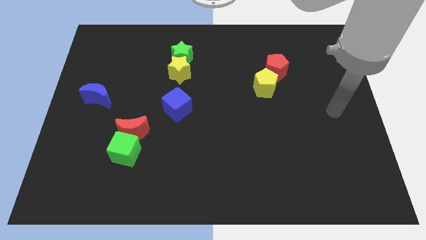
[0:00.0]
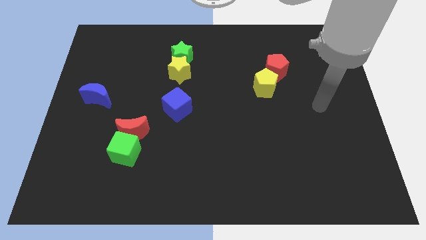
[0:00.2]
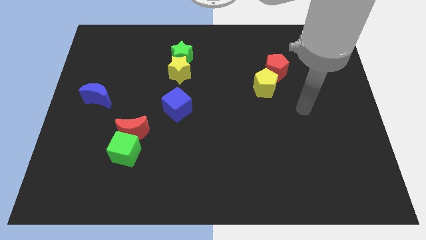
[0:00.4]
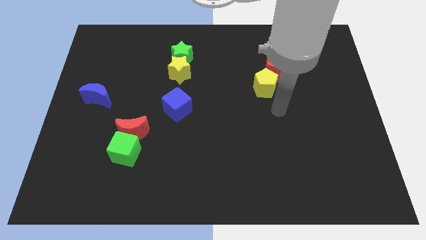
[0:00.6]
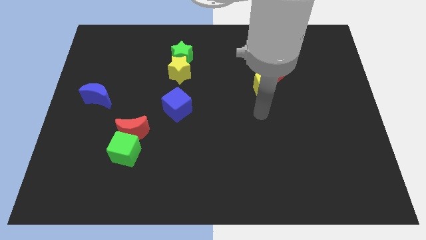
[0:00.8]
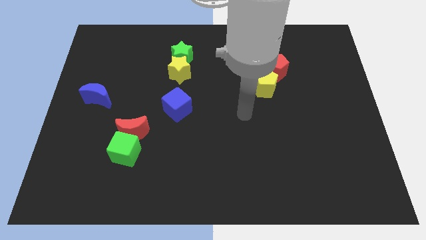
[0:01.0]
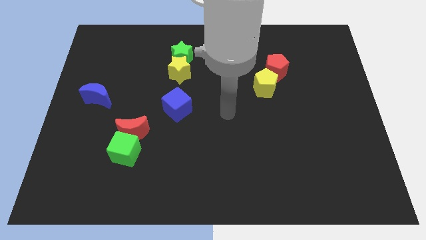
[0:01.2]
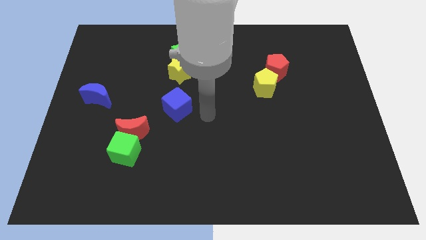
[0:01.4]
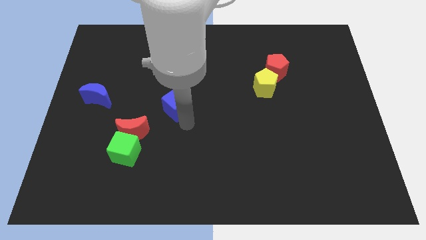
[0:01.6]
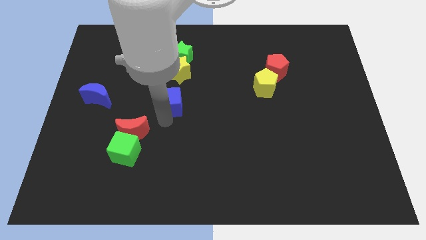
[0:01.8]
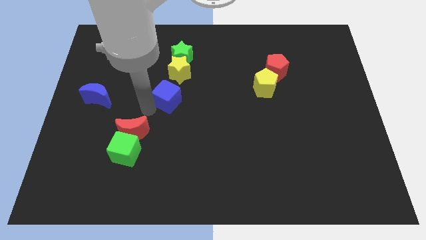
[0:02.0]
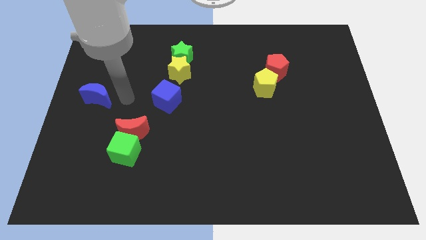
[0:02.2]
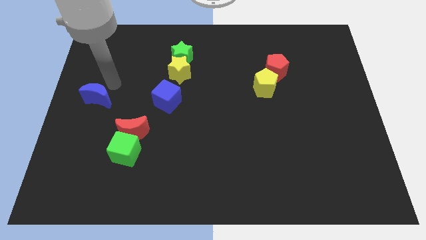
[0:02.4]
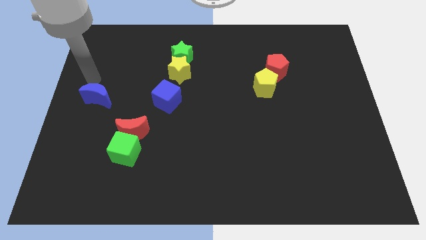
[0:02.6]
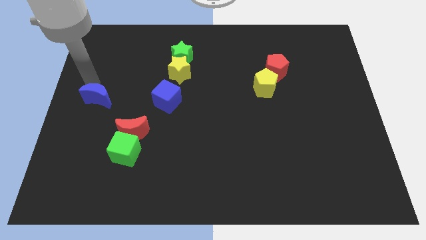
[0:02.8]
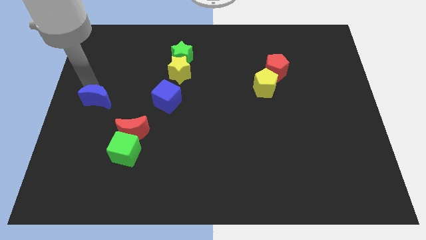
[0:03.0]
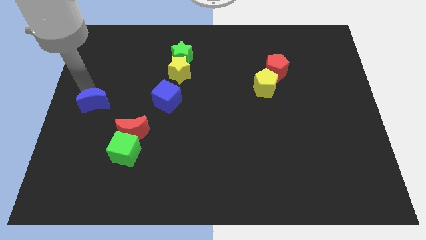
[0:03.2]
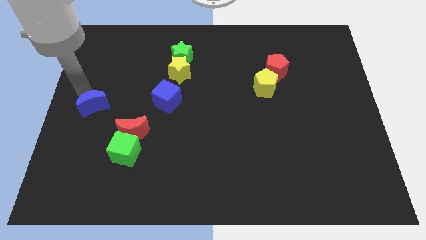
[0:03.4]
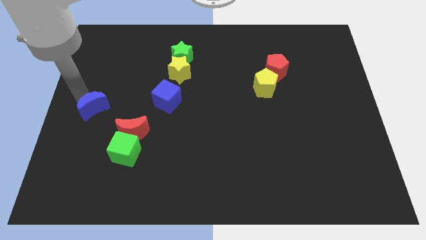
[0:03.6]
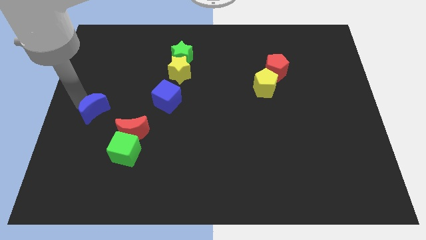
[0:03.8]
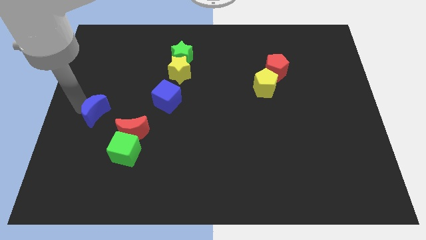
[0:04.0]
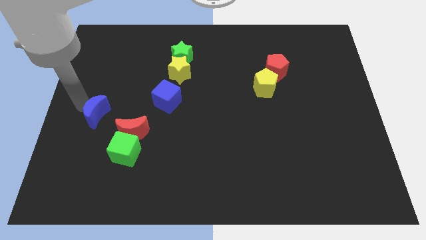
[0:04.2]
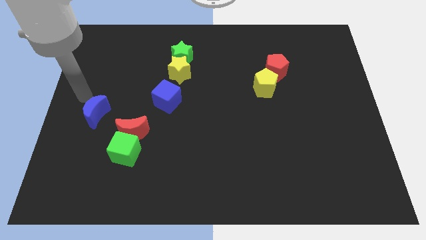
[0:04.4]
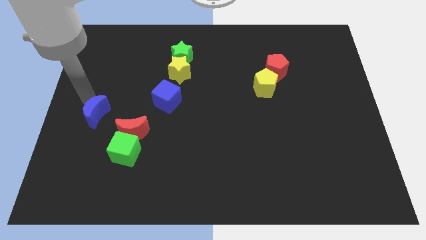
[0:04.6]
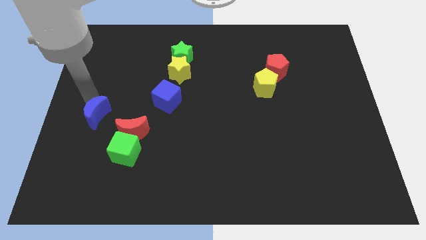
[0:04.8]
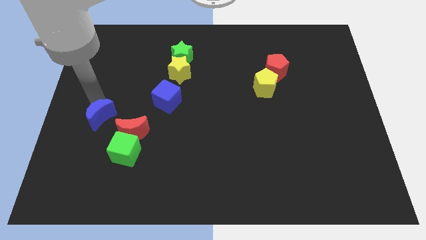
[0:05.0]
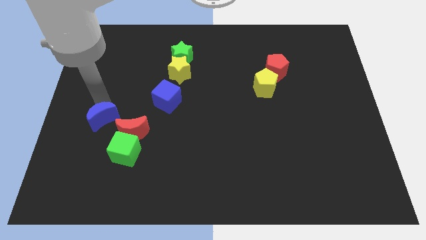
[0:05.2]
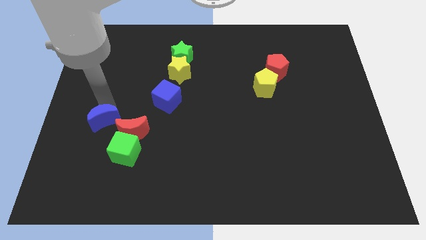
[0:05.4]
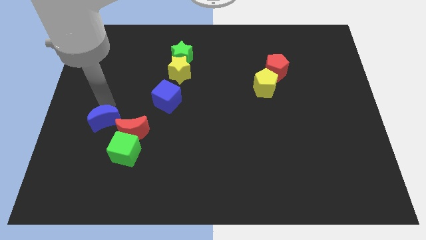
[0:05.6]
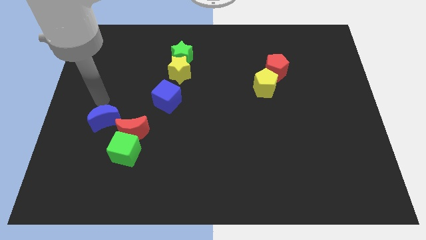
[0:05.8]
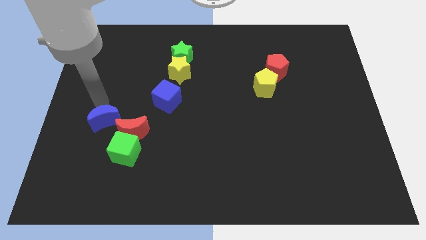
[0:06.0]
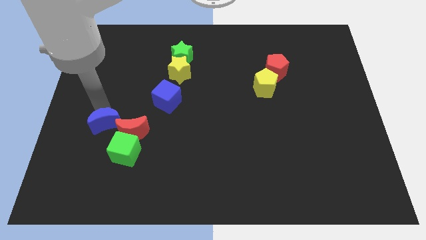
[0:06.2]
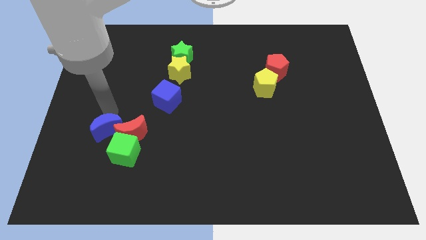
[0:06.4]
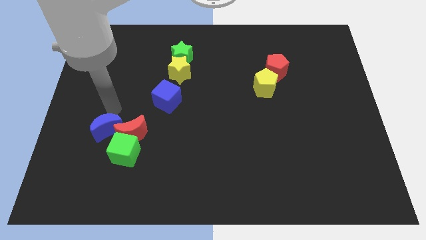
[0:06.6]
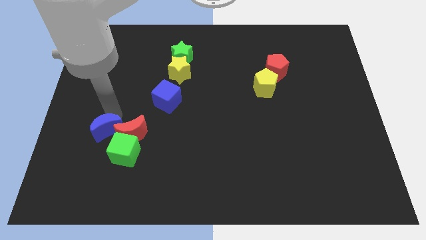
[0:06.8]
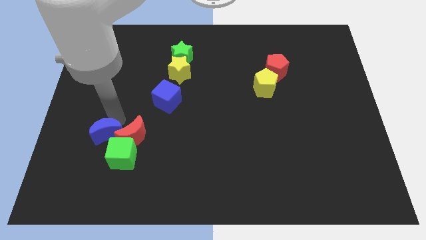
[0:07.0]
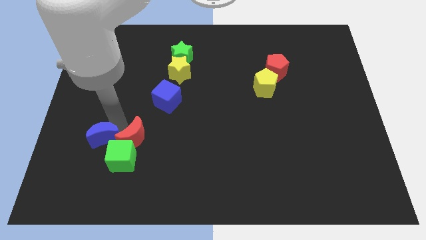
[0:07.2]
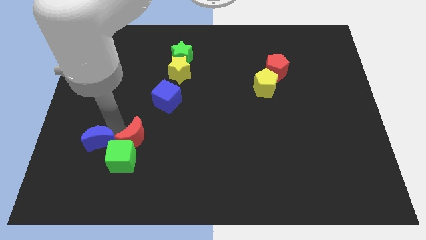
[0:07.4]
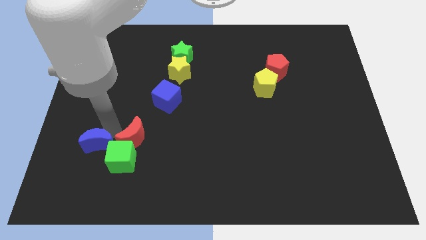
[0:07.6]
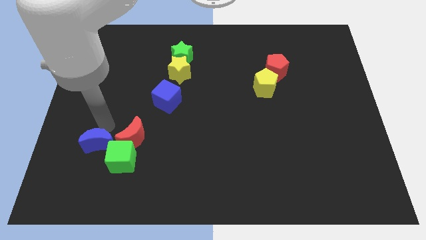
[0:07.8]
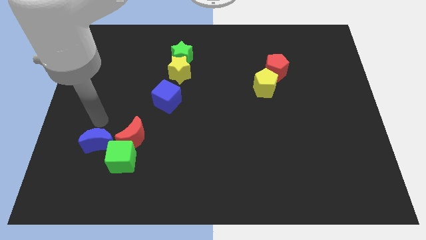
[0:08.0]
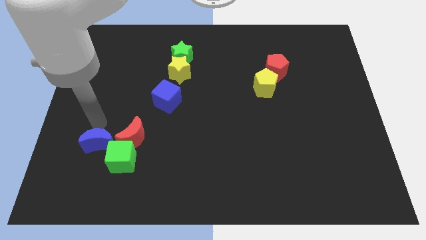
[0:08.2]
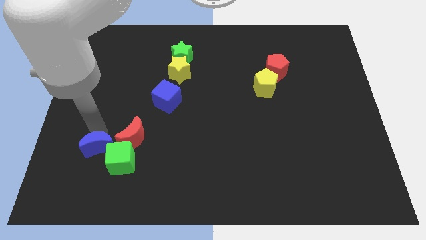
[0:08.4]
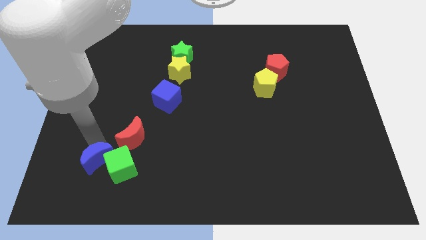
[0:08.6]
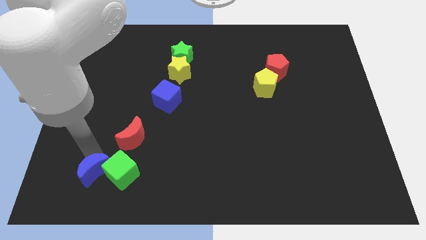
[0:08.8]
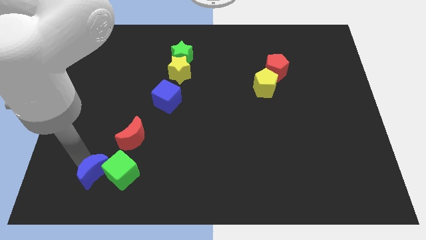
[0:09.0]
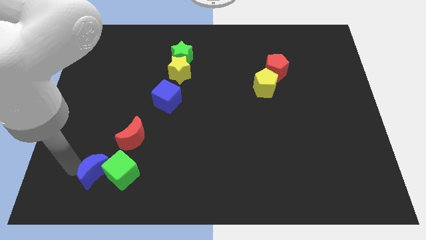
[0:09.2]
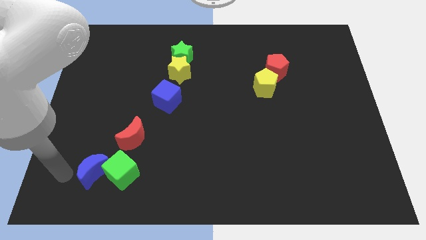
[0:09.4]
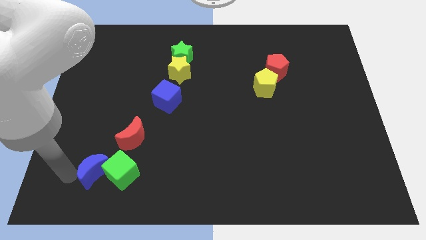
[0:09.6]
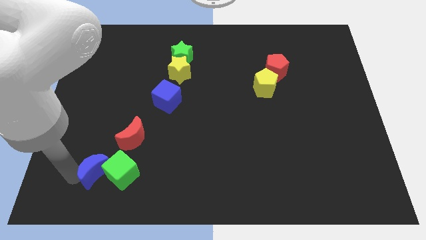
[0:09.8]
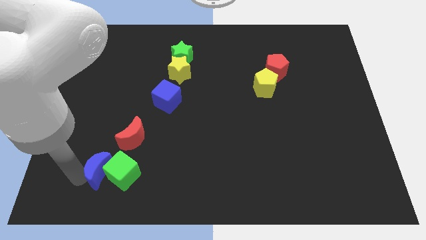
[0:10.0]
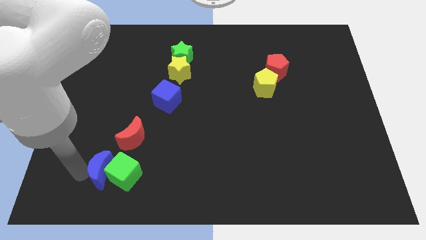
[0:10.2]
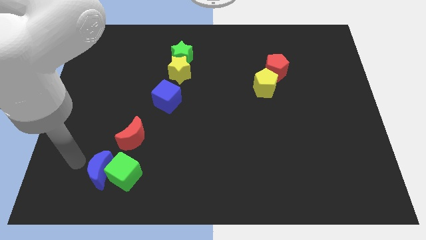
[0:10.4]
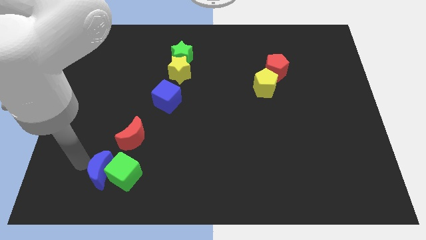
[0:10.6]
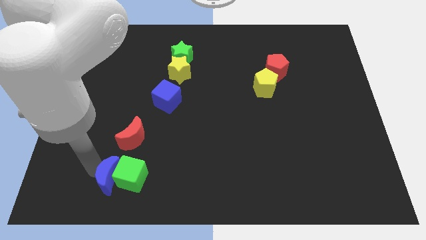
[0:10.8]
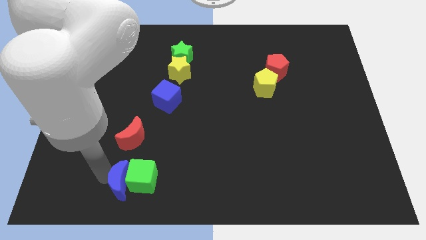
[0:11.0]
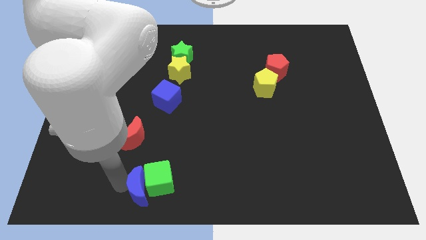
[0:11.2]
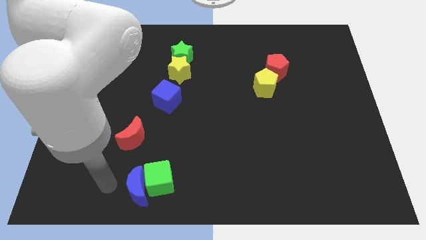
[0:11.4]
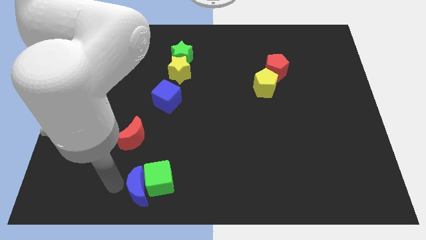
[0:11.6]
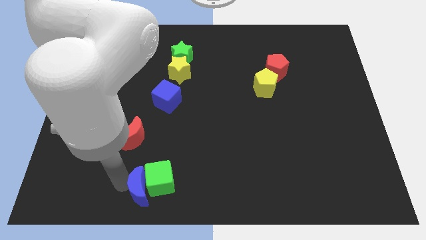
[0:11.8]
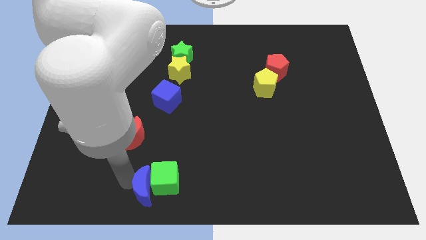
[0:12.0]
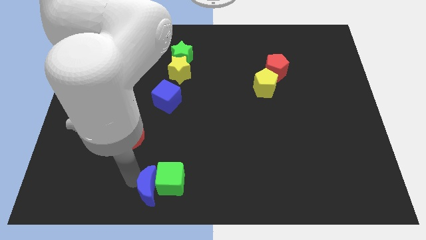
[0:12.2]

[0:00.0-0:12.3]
slide the blue moon to the bottom
